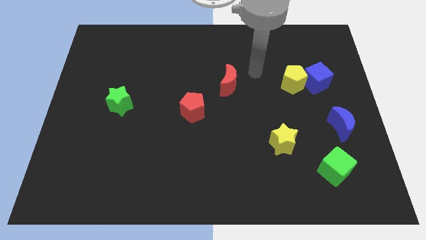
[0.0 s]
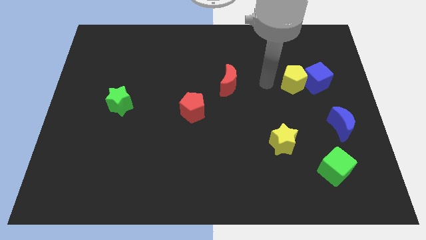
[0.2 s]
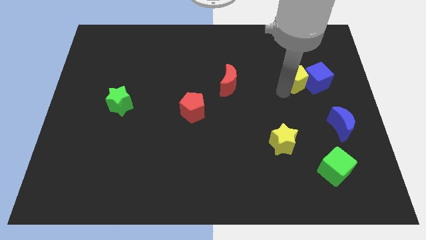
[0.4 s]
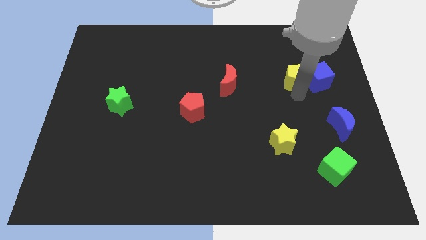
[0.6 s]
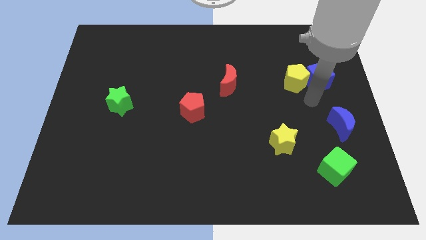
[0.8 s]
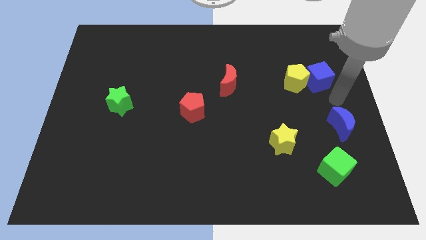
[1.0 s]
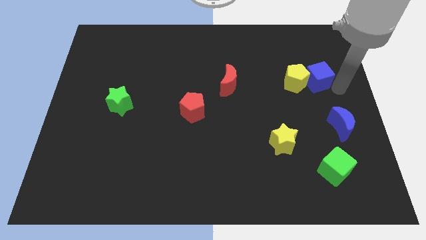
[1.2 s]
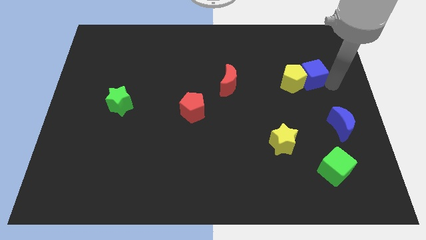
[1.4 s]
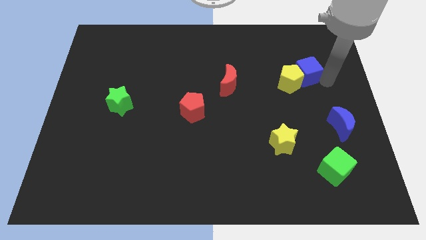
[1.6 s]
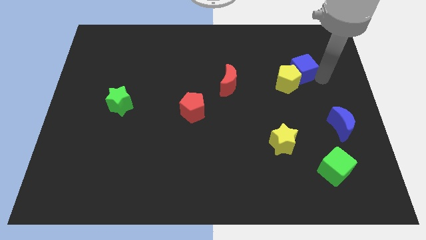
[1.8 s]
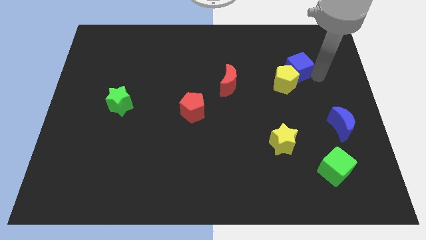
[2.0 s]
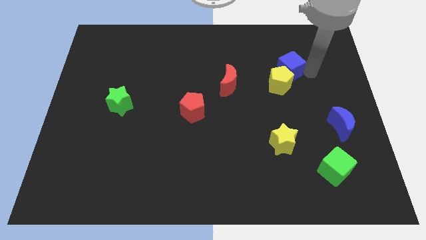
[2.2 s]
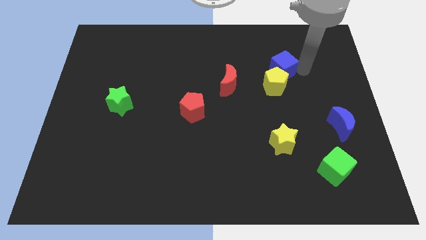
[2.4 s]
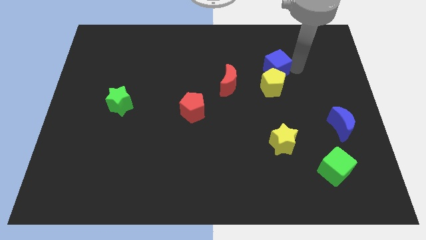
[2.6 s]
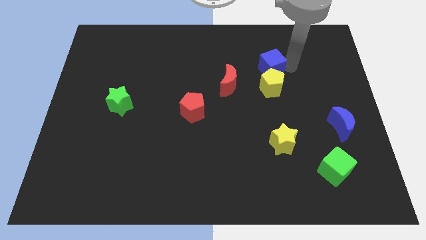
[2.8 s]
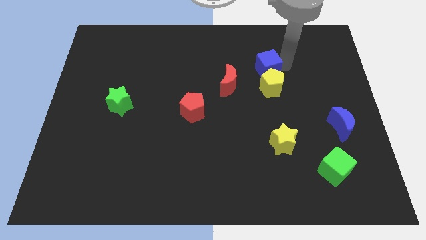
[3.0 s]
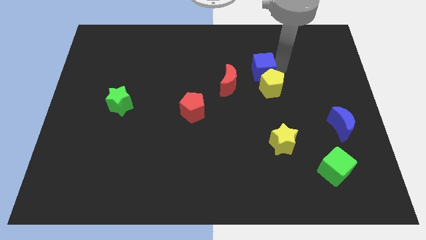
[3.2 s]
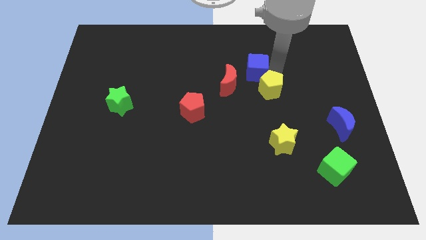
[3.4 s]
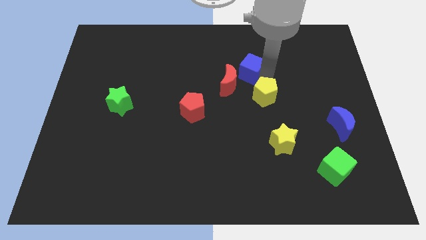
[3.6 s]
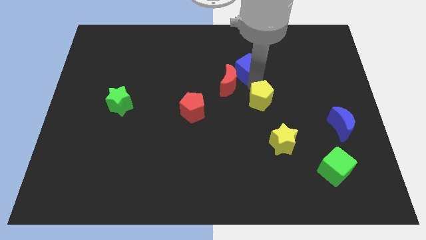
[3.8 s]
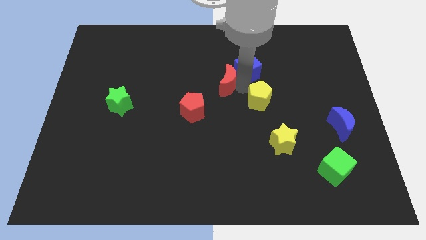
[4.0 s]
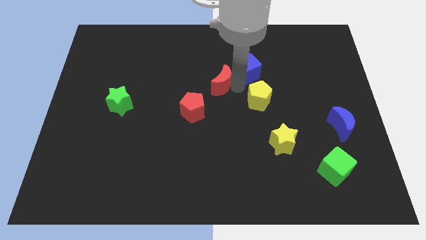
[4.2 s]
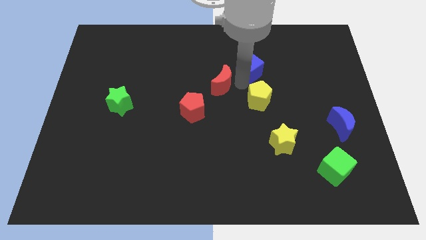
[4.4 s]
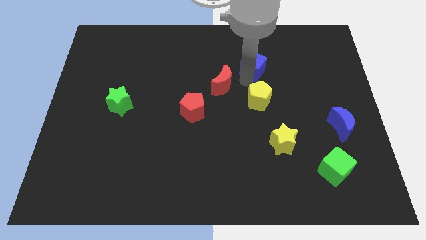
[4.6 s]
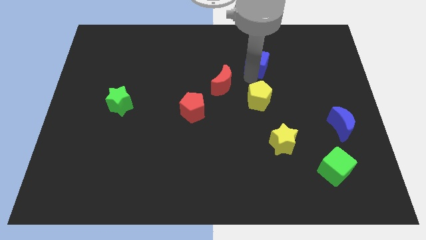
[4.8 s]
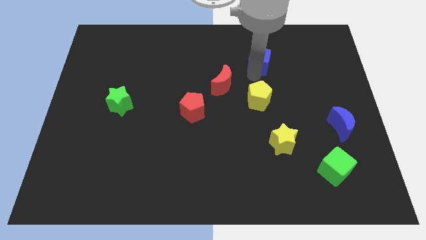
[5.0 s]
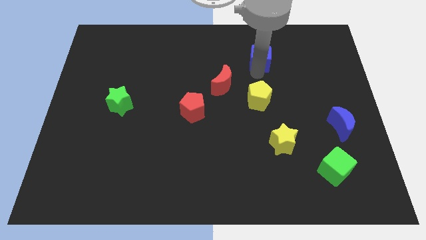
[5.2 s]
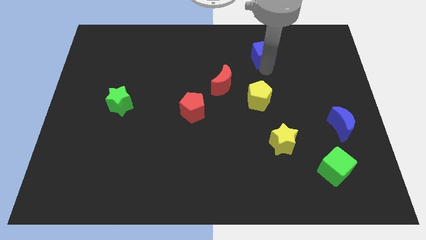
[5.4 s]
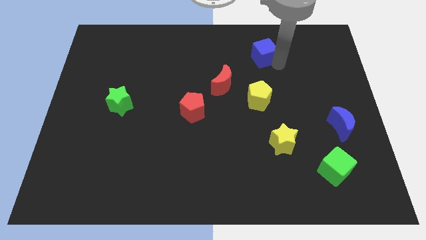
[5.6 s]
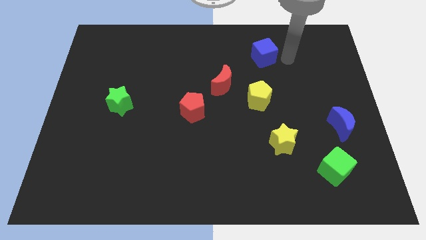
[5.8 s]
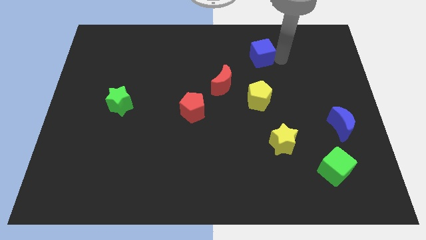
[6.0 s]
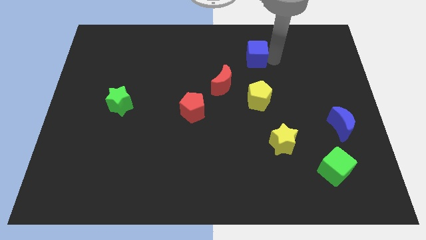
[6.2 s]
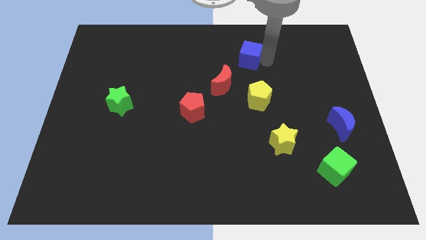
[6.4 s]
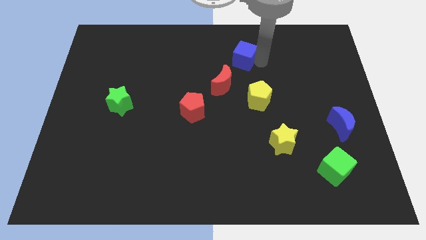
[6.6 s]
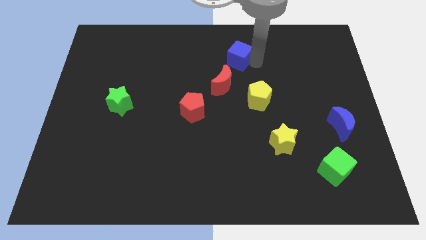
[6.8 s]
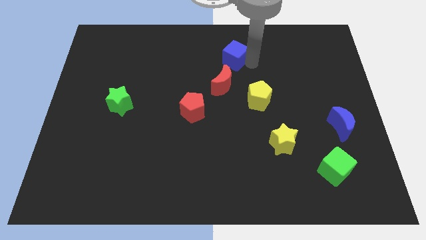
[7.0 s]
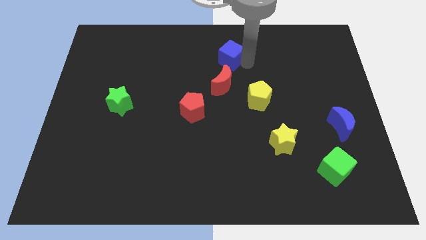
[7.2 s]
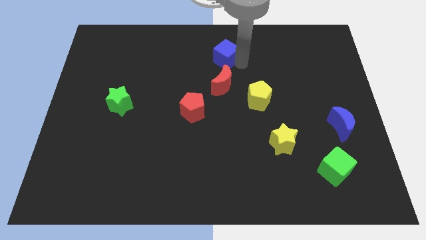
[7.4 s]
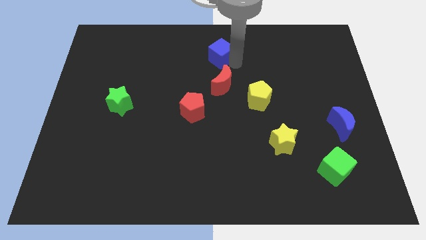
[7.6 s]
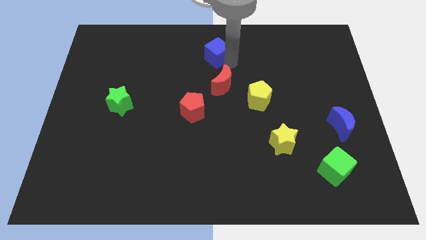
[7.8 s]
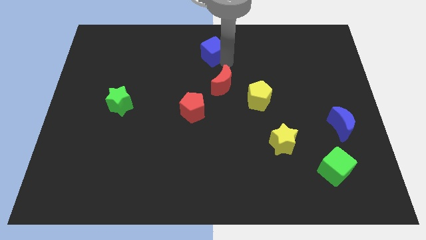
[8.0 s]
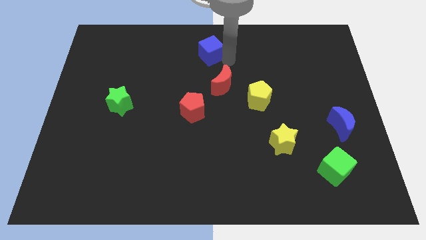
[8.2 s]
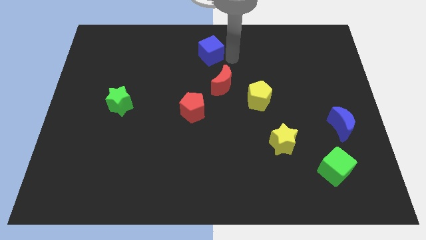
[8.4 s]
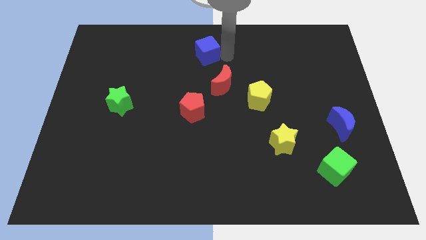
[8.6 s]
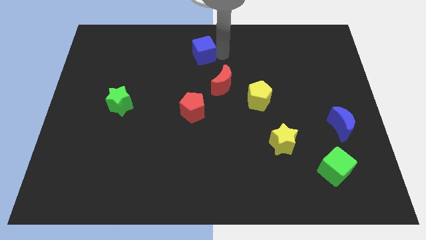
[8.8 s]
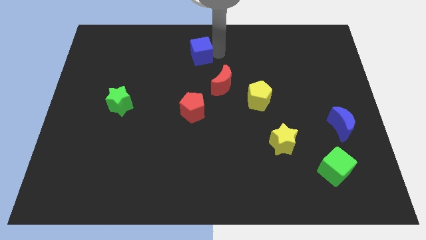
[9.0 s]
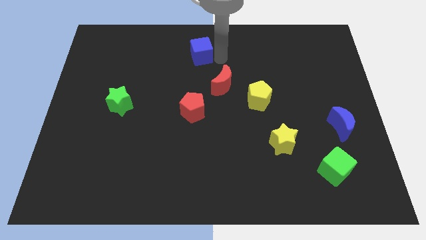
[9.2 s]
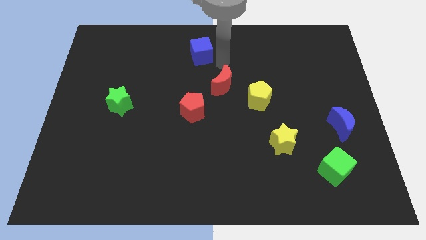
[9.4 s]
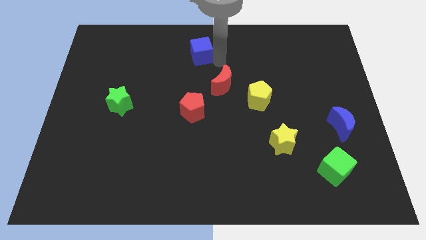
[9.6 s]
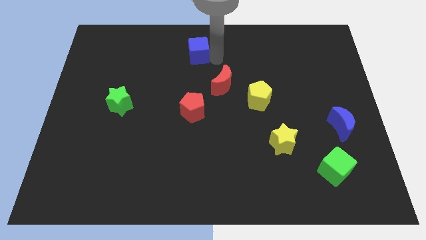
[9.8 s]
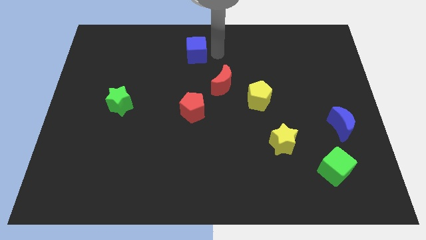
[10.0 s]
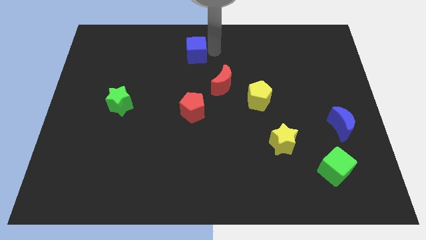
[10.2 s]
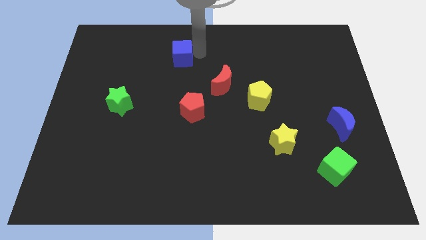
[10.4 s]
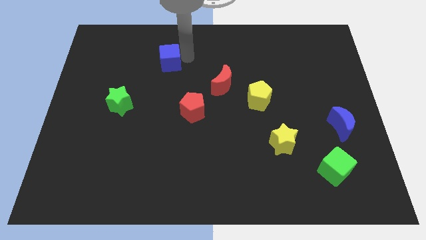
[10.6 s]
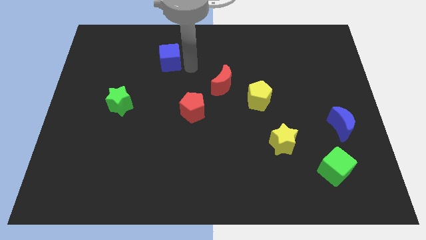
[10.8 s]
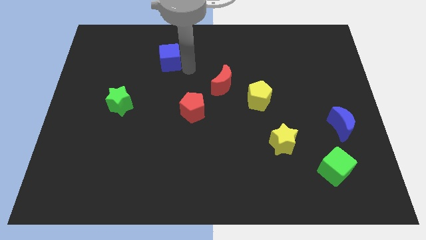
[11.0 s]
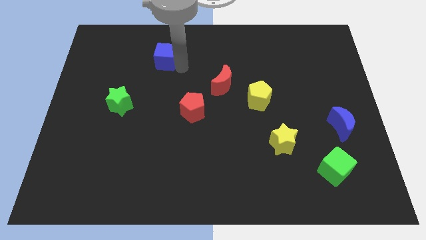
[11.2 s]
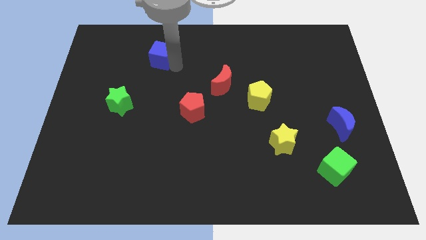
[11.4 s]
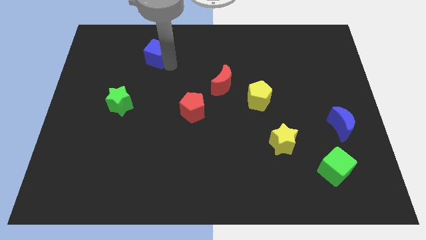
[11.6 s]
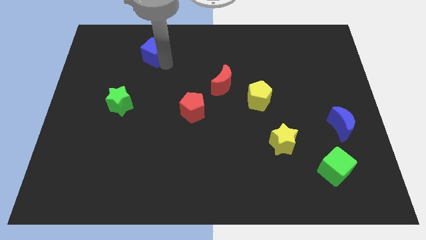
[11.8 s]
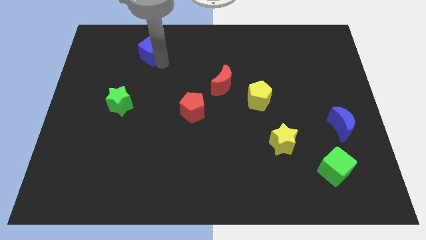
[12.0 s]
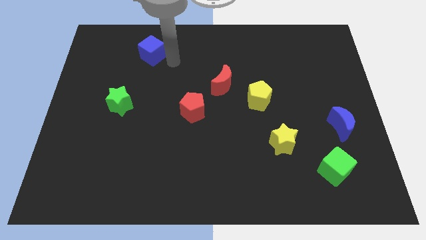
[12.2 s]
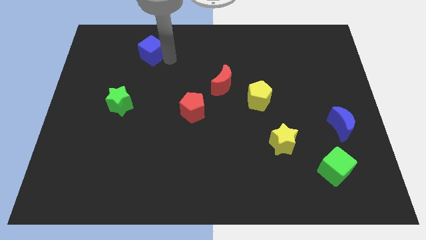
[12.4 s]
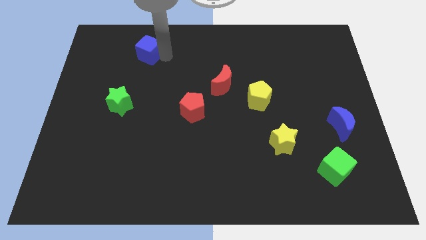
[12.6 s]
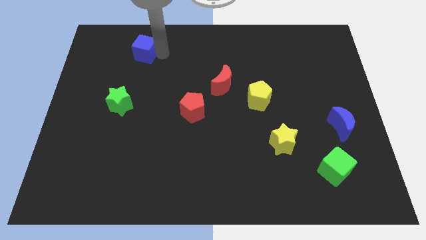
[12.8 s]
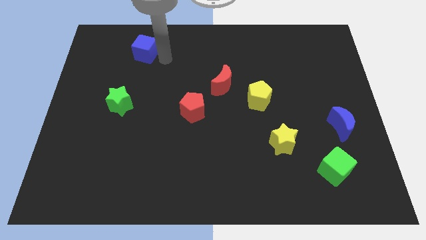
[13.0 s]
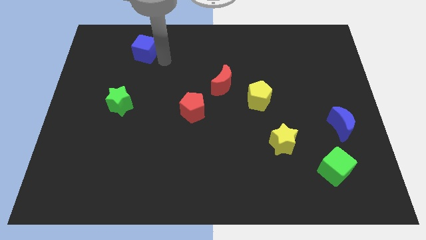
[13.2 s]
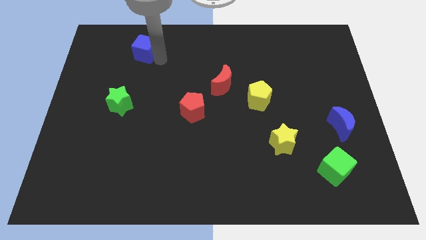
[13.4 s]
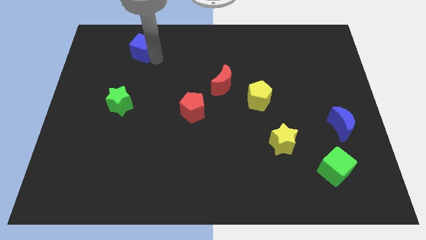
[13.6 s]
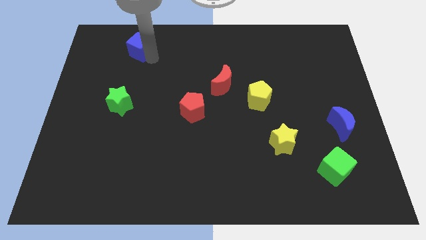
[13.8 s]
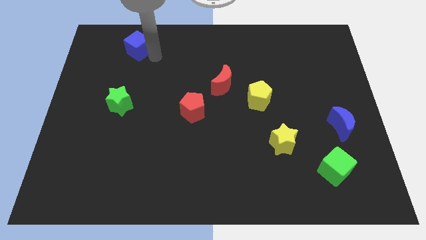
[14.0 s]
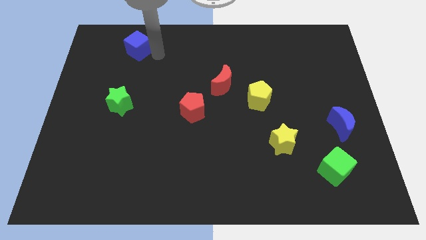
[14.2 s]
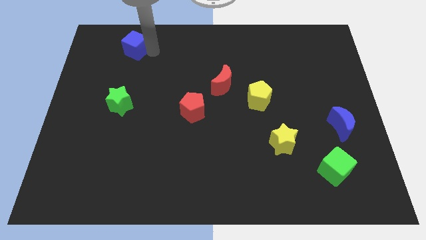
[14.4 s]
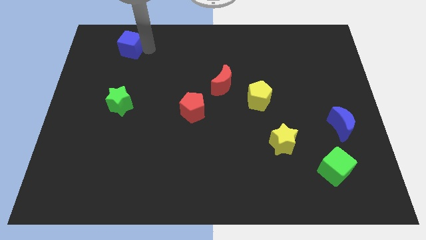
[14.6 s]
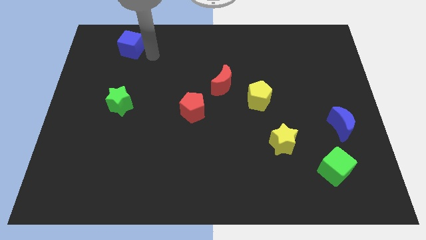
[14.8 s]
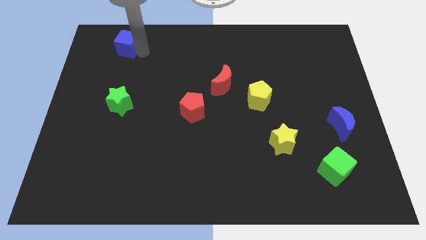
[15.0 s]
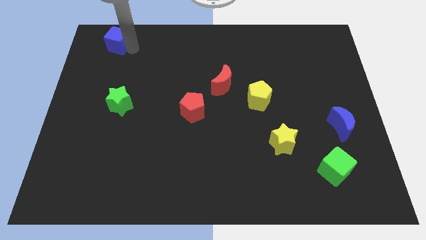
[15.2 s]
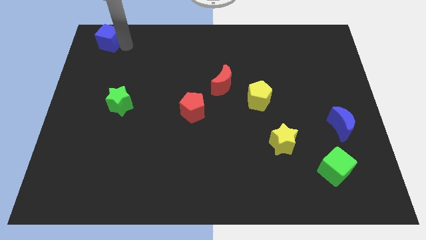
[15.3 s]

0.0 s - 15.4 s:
slide the blue cube to the upper left corner
